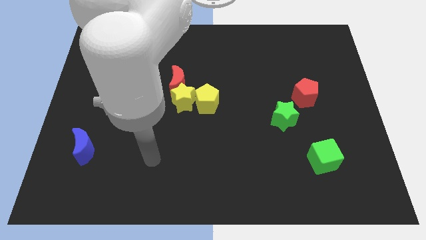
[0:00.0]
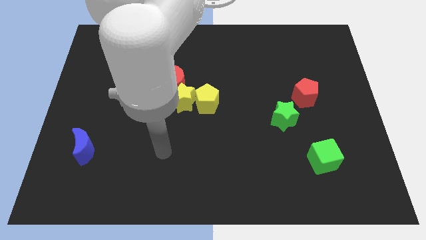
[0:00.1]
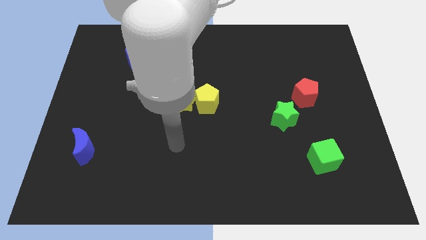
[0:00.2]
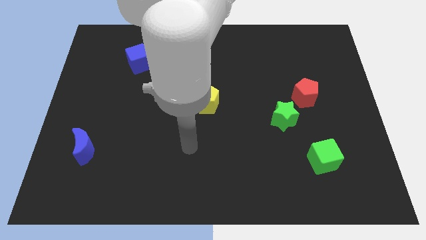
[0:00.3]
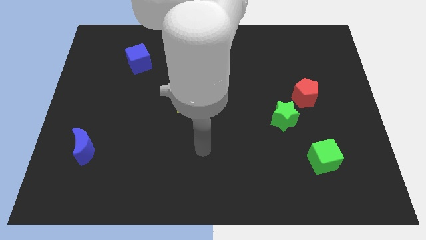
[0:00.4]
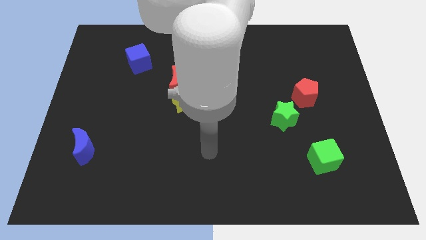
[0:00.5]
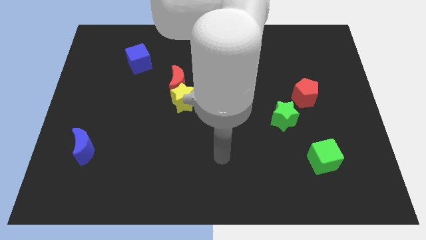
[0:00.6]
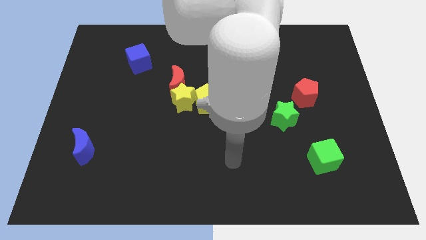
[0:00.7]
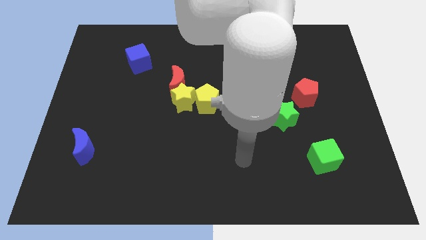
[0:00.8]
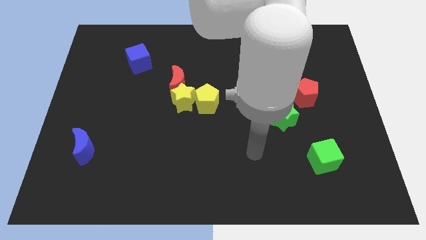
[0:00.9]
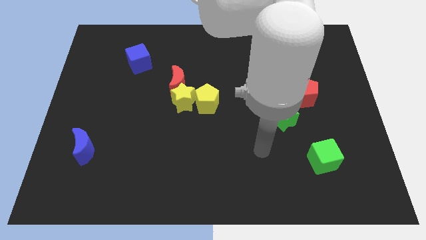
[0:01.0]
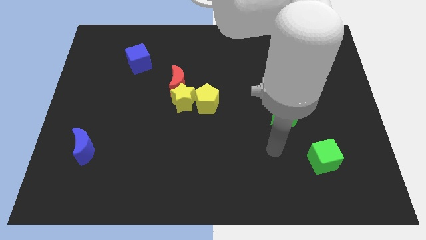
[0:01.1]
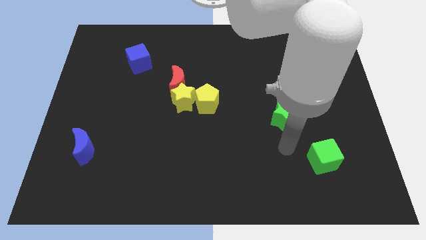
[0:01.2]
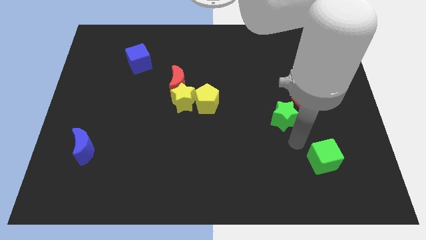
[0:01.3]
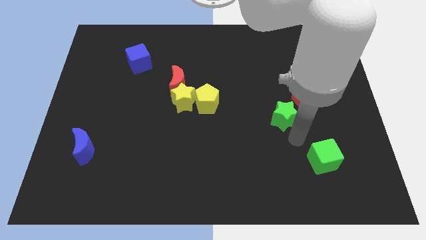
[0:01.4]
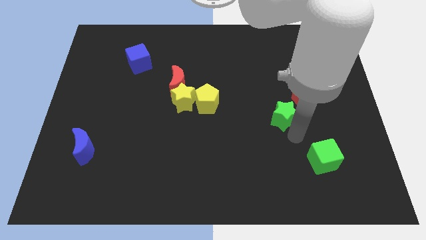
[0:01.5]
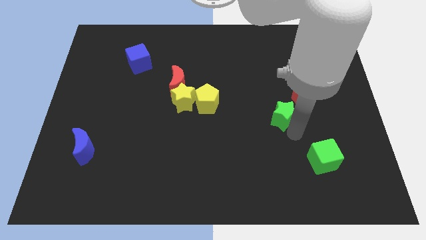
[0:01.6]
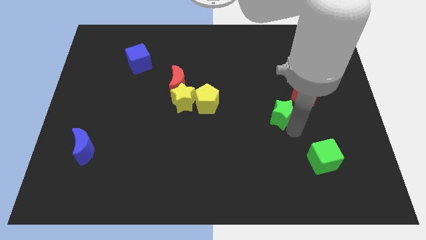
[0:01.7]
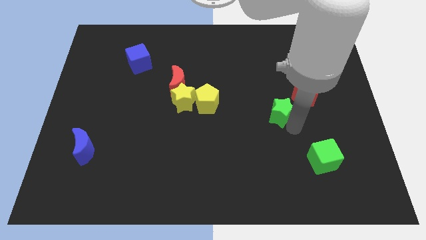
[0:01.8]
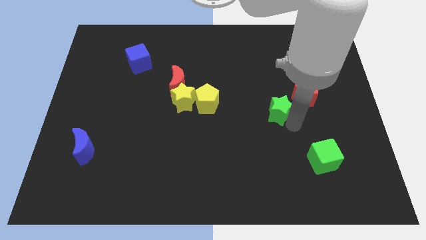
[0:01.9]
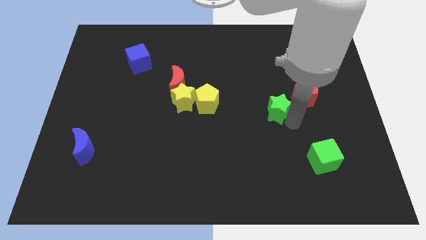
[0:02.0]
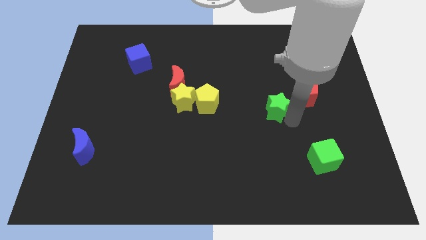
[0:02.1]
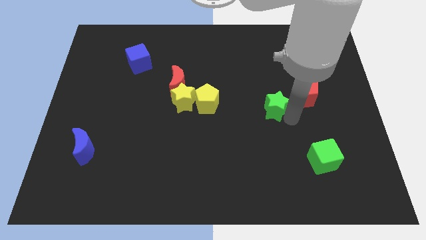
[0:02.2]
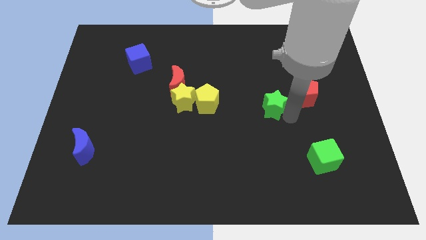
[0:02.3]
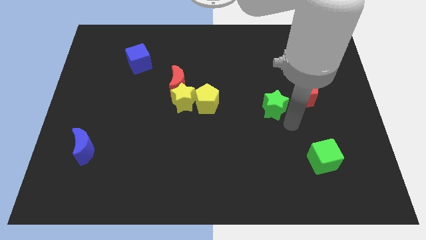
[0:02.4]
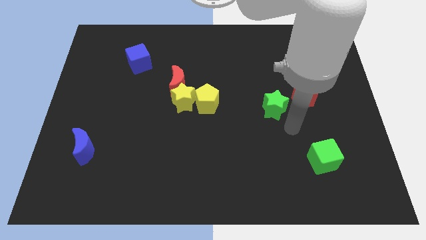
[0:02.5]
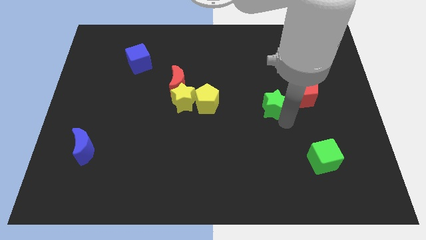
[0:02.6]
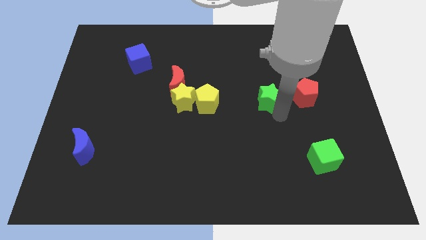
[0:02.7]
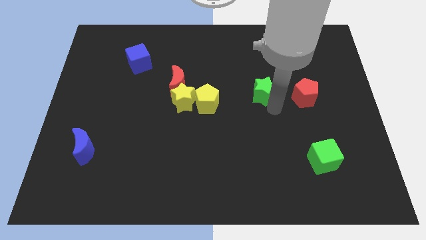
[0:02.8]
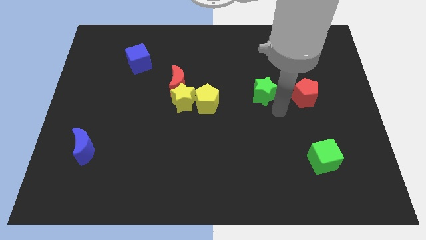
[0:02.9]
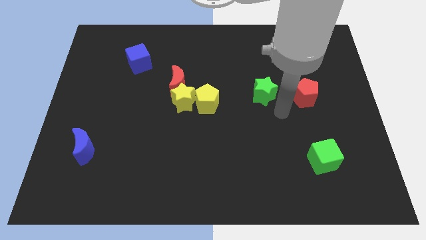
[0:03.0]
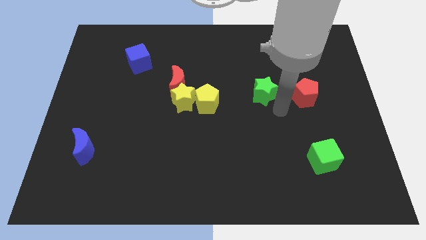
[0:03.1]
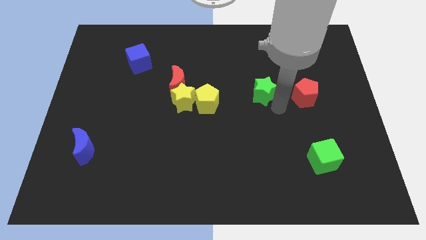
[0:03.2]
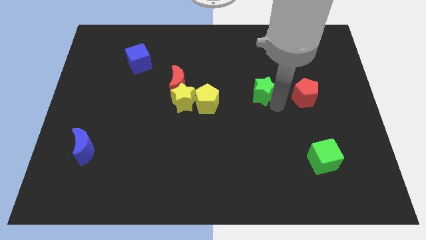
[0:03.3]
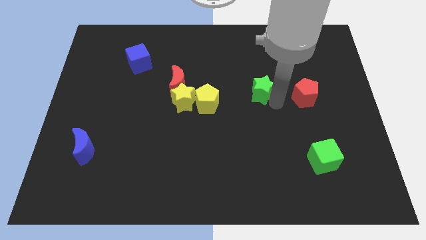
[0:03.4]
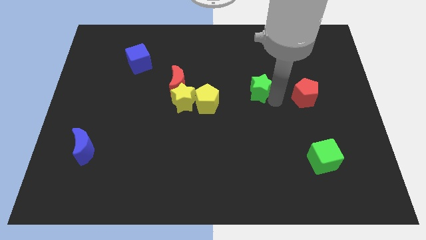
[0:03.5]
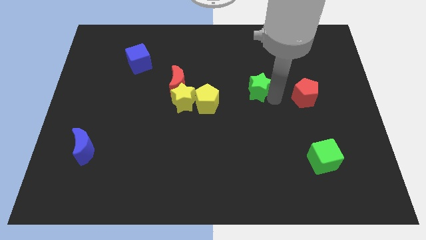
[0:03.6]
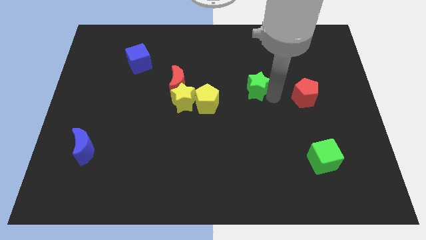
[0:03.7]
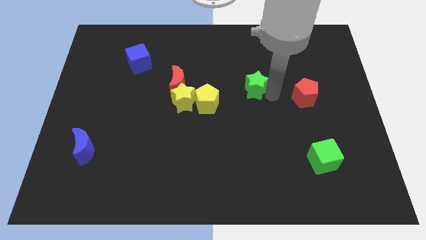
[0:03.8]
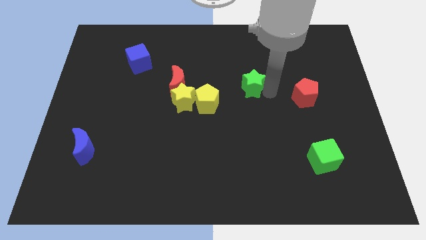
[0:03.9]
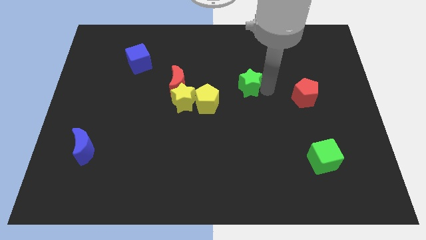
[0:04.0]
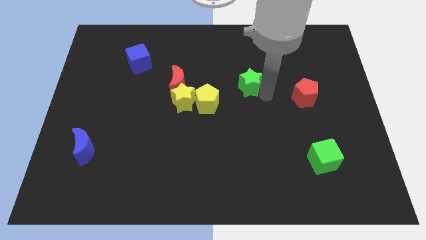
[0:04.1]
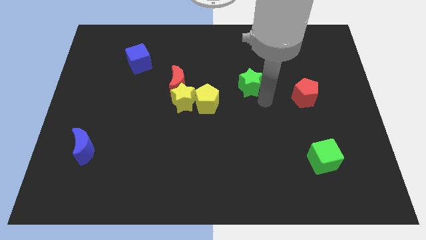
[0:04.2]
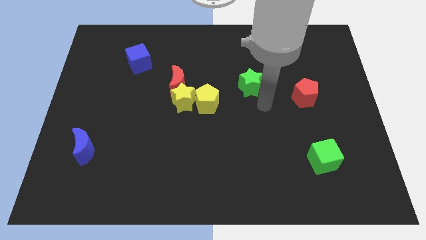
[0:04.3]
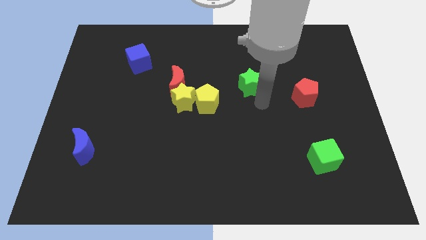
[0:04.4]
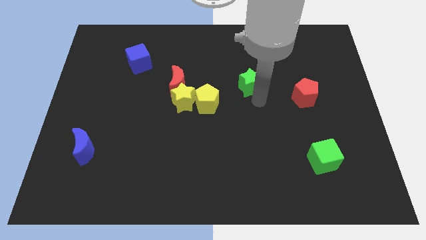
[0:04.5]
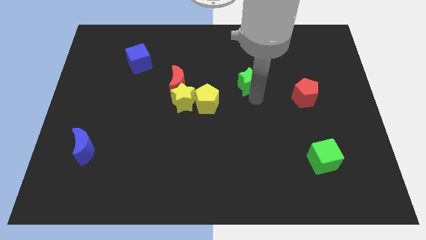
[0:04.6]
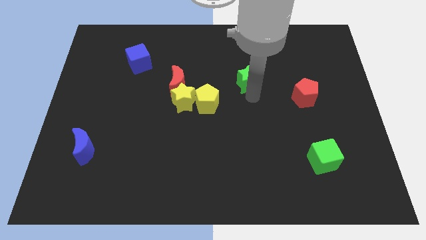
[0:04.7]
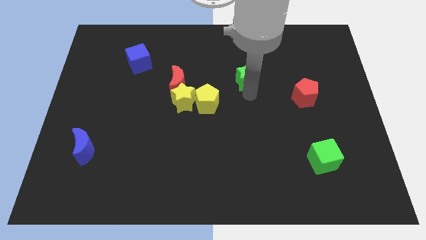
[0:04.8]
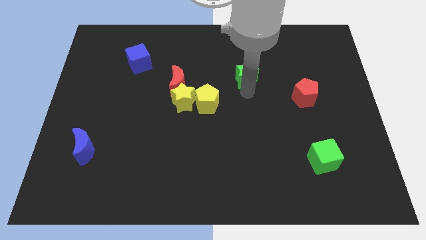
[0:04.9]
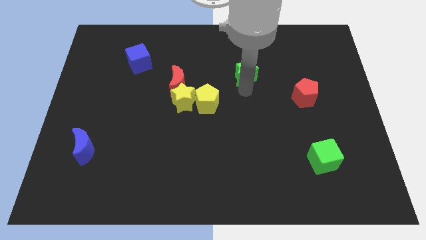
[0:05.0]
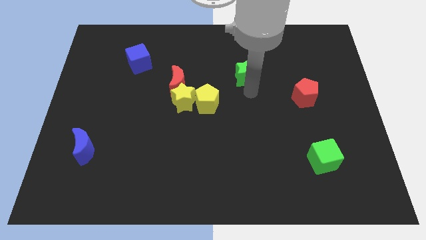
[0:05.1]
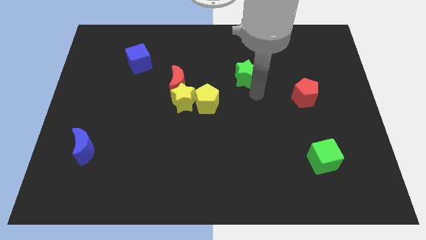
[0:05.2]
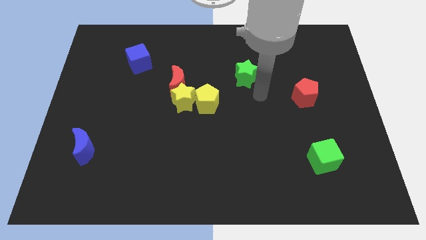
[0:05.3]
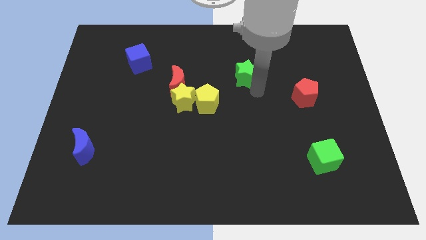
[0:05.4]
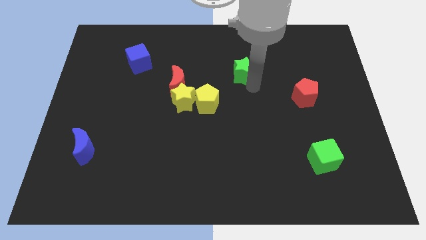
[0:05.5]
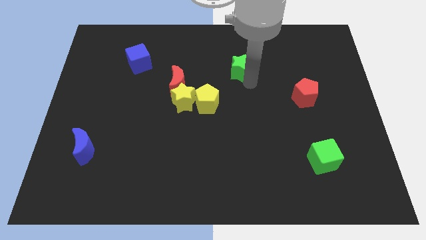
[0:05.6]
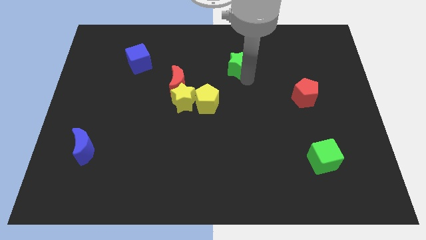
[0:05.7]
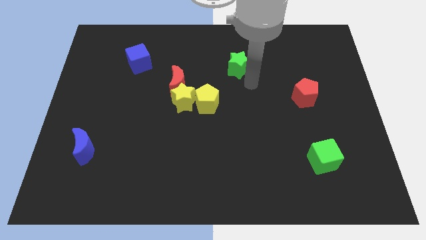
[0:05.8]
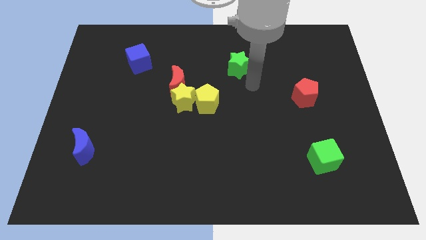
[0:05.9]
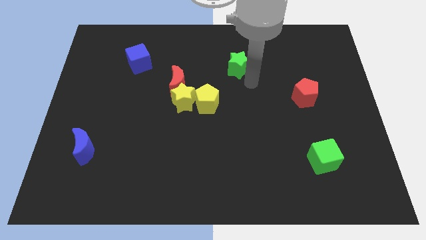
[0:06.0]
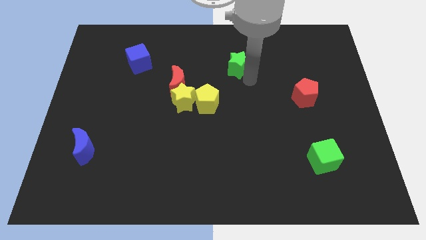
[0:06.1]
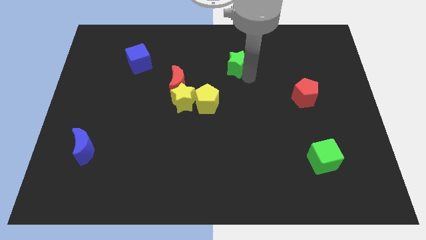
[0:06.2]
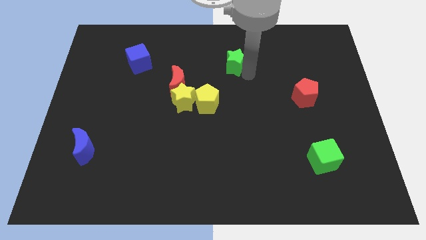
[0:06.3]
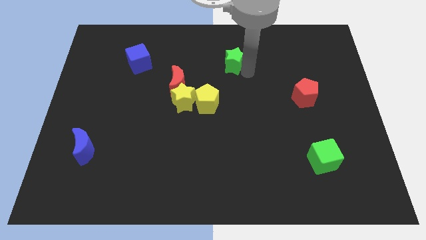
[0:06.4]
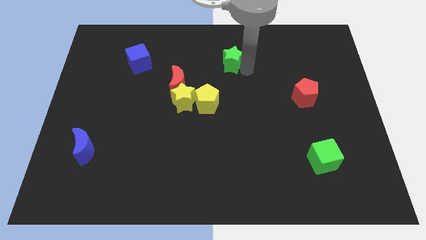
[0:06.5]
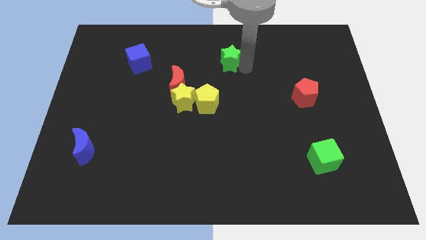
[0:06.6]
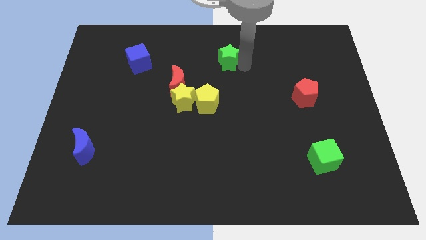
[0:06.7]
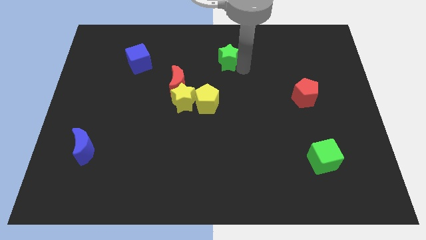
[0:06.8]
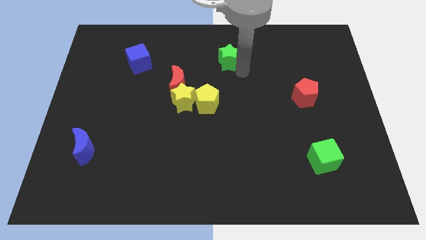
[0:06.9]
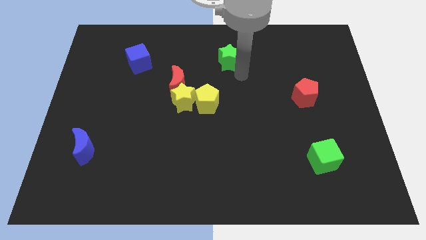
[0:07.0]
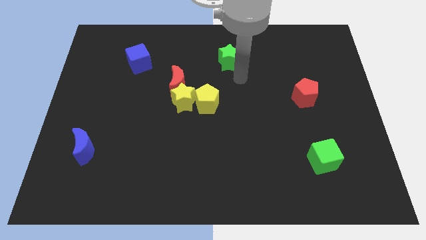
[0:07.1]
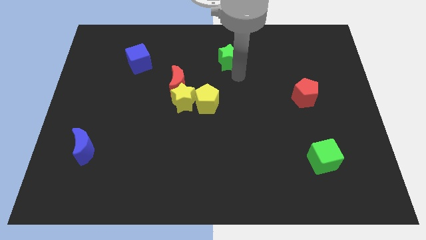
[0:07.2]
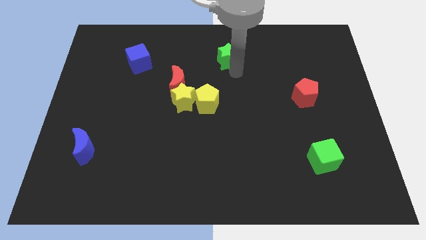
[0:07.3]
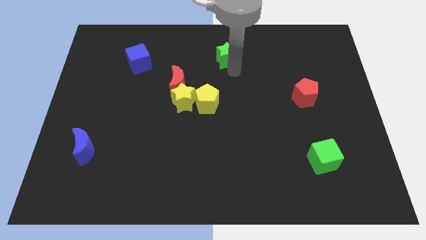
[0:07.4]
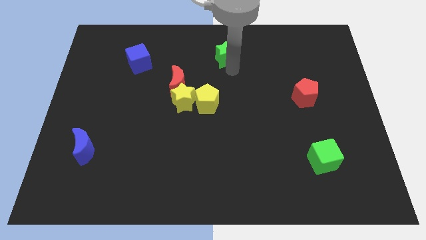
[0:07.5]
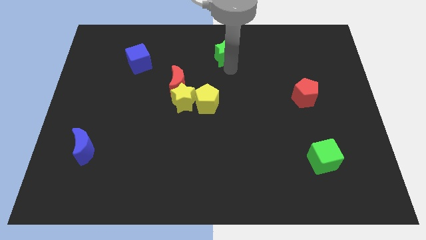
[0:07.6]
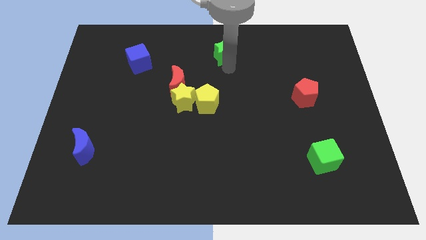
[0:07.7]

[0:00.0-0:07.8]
move the green star to the top
